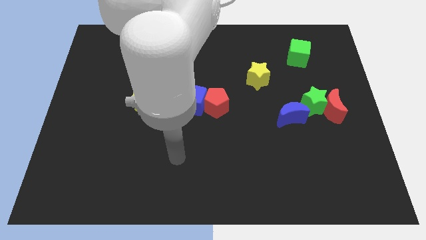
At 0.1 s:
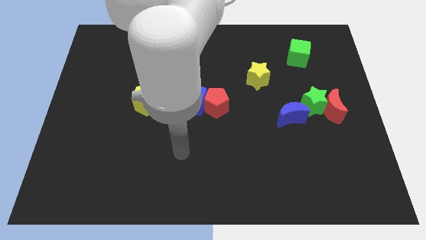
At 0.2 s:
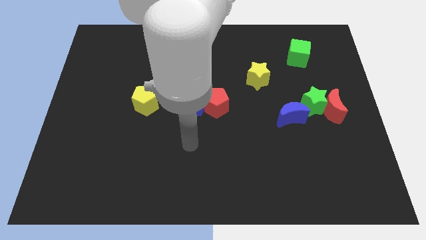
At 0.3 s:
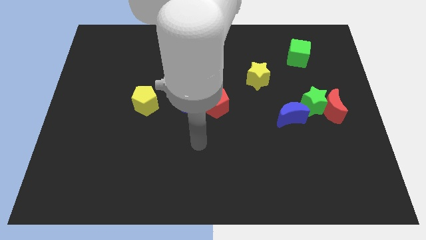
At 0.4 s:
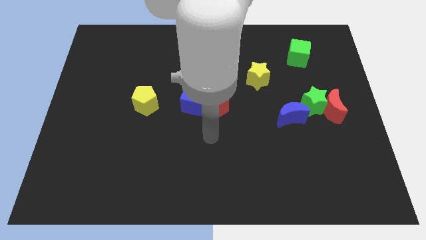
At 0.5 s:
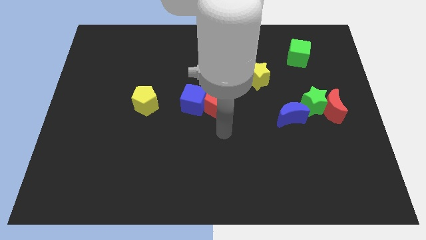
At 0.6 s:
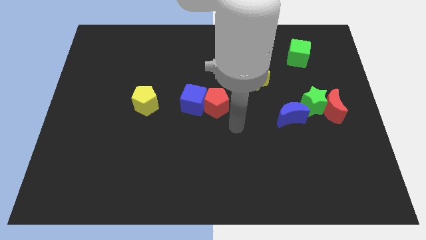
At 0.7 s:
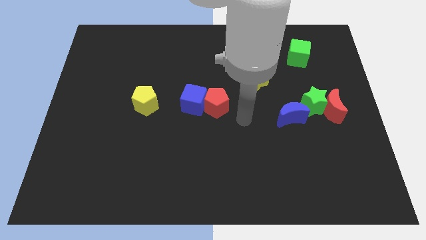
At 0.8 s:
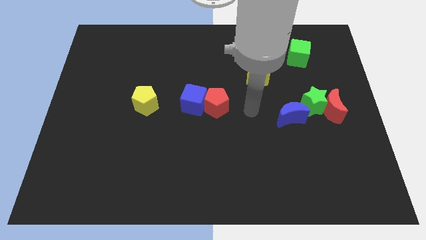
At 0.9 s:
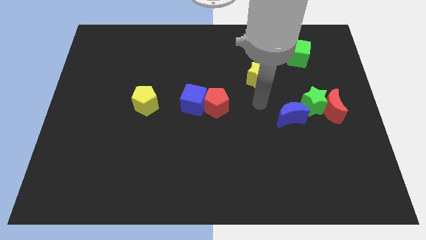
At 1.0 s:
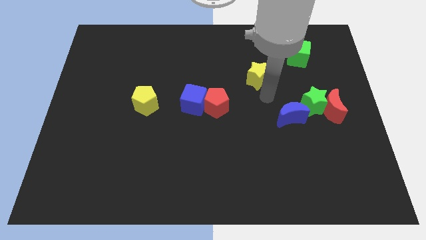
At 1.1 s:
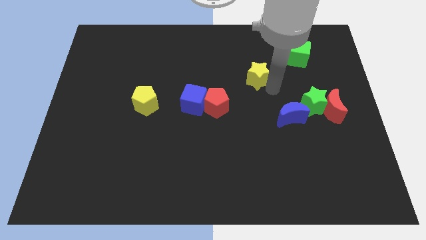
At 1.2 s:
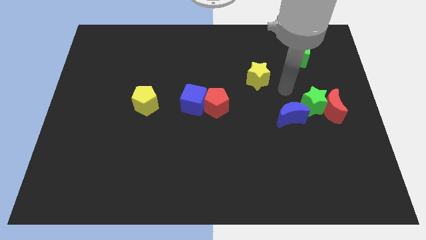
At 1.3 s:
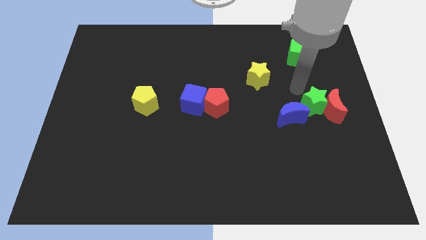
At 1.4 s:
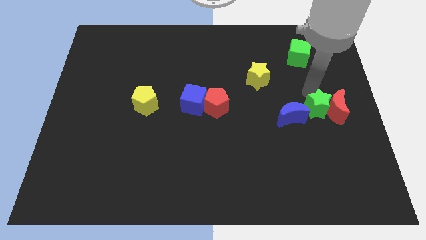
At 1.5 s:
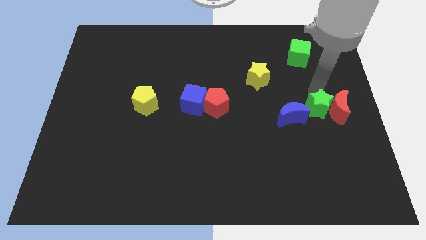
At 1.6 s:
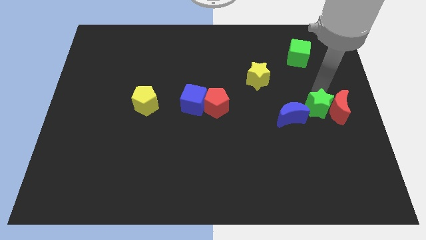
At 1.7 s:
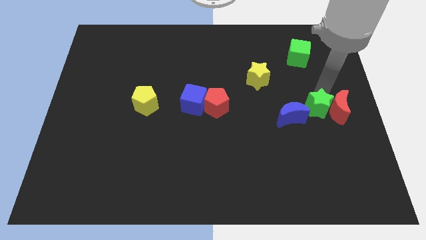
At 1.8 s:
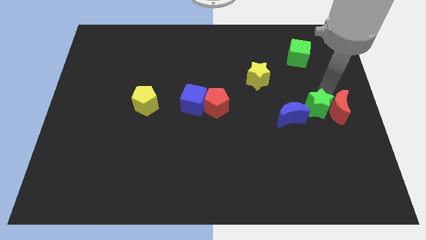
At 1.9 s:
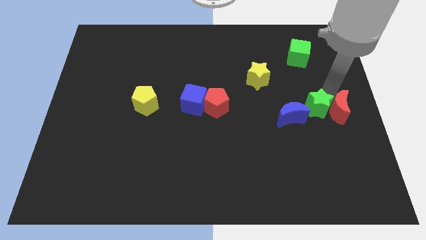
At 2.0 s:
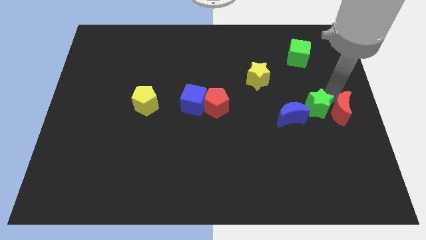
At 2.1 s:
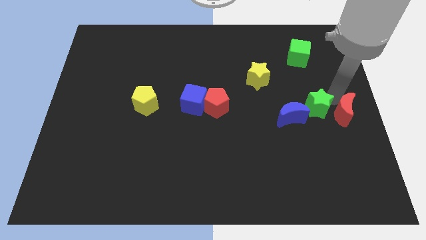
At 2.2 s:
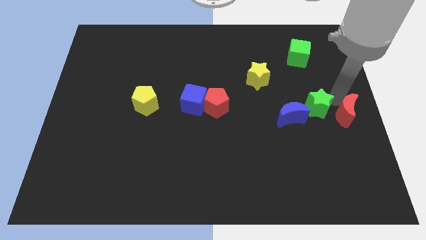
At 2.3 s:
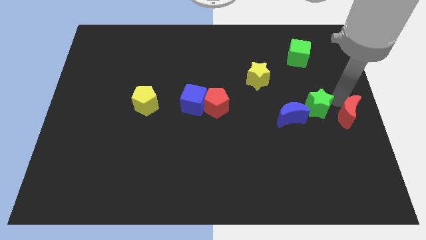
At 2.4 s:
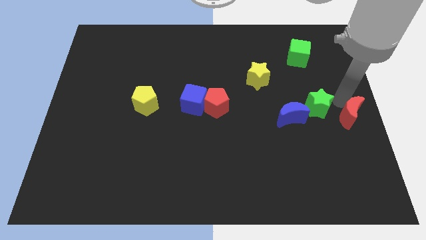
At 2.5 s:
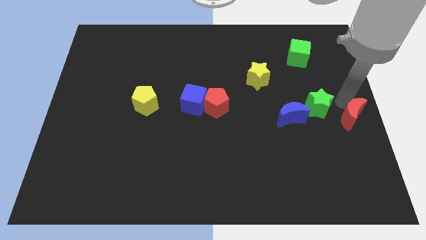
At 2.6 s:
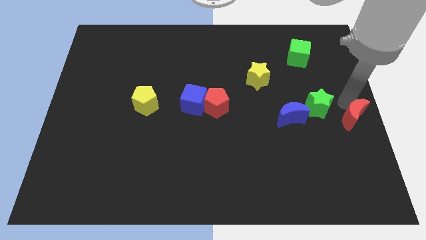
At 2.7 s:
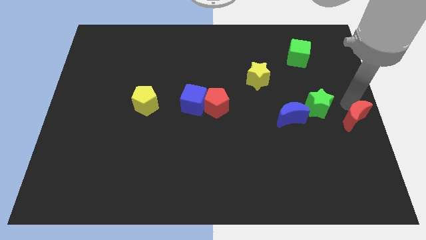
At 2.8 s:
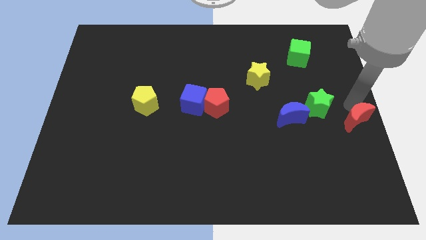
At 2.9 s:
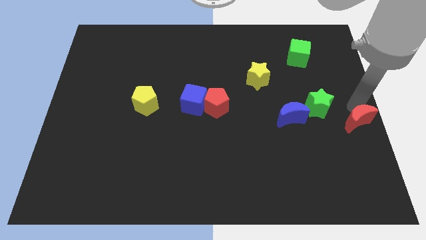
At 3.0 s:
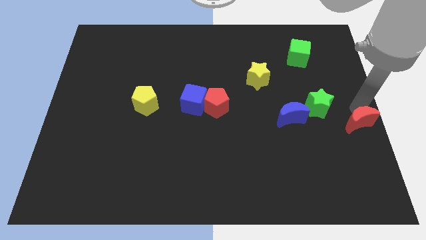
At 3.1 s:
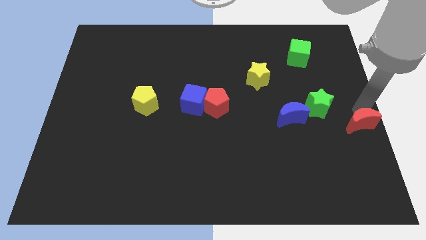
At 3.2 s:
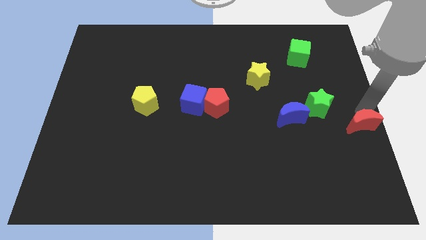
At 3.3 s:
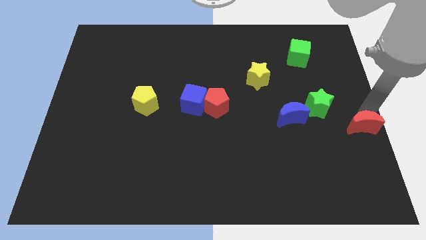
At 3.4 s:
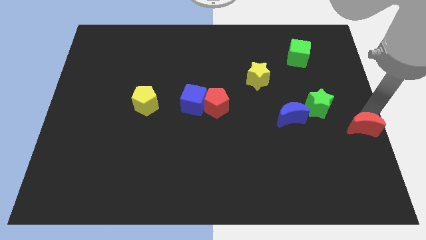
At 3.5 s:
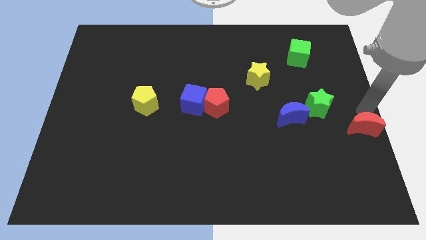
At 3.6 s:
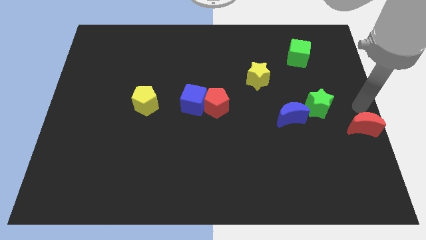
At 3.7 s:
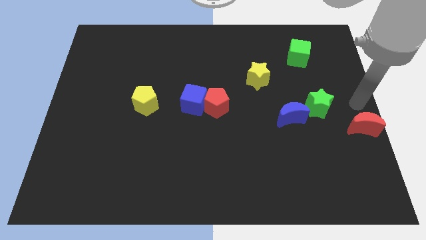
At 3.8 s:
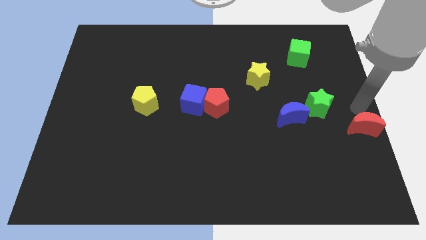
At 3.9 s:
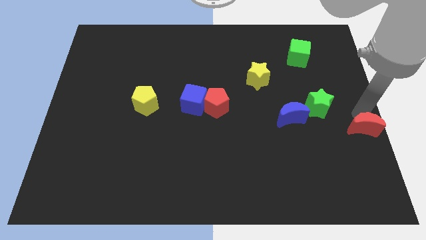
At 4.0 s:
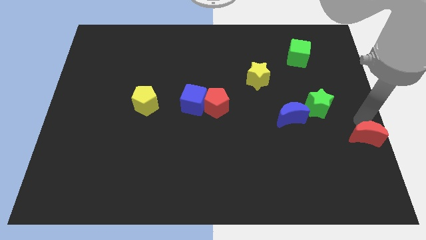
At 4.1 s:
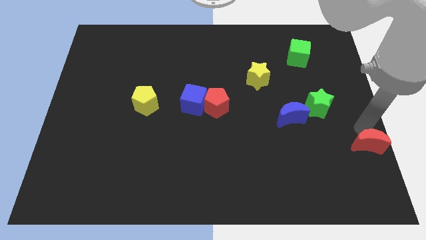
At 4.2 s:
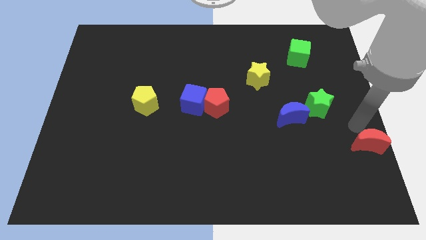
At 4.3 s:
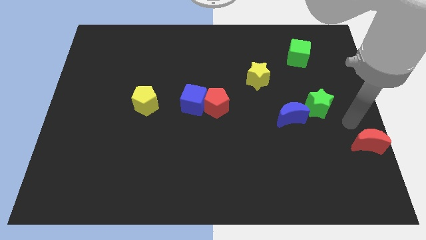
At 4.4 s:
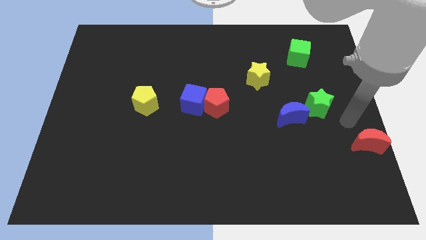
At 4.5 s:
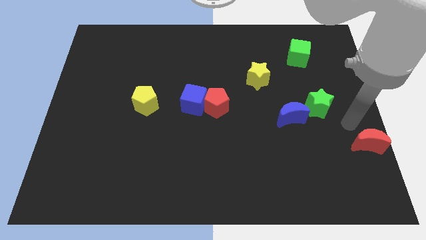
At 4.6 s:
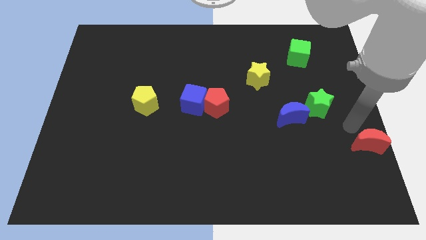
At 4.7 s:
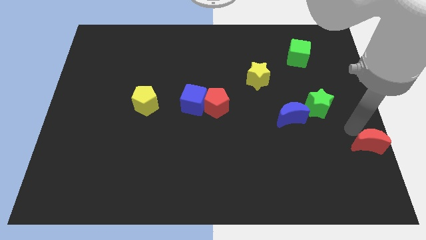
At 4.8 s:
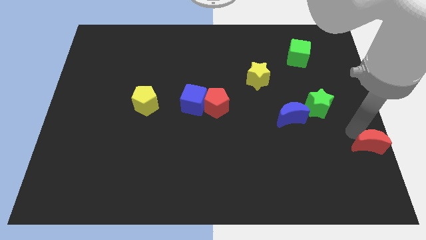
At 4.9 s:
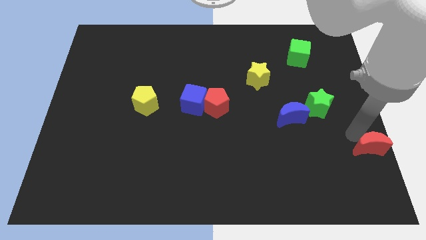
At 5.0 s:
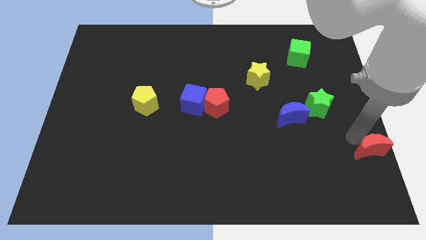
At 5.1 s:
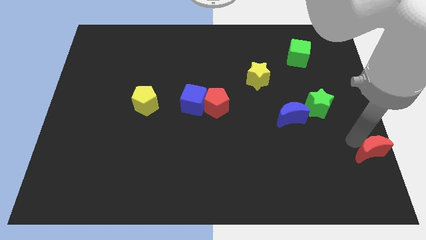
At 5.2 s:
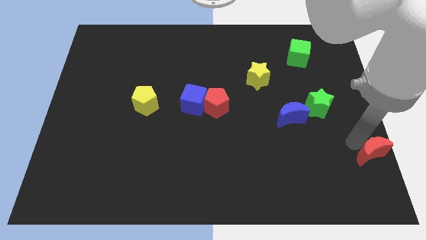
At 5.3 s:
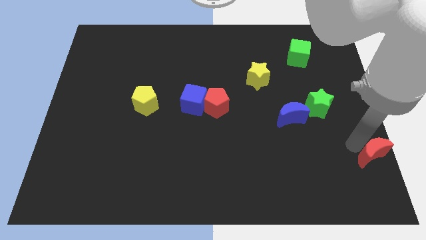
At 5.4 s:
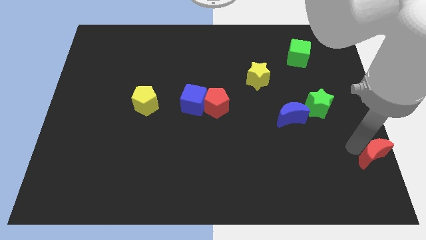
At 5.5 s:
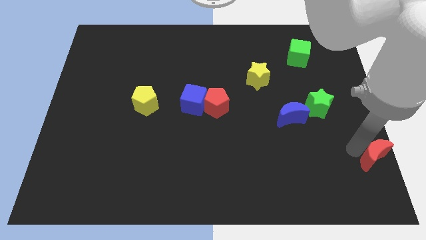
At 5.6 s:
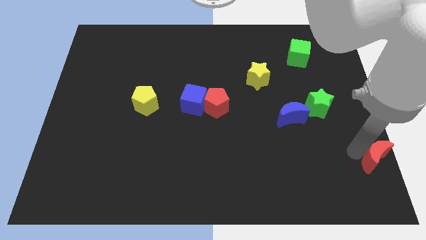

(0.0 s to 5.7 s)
slide the red moon to the bottom right of the board
